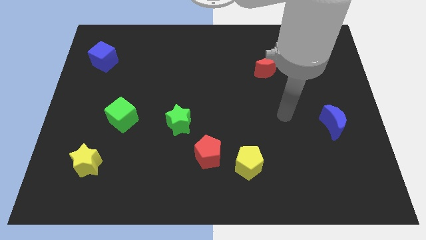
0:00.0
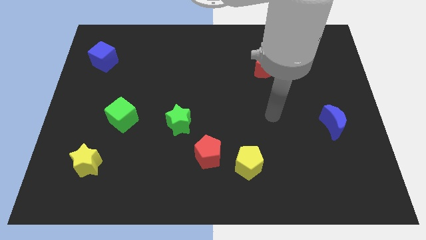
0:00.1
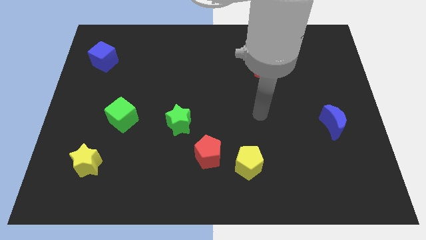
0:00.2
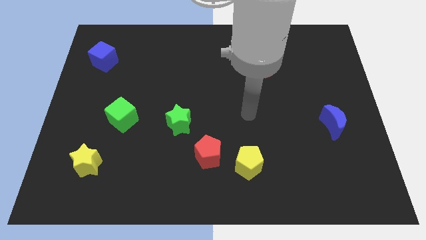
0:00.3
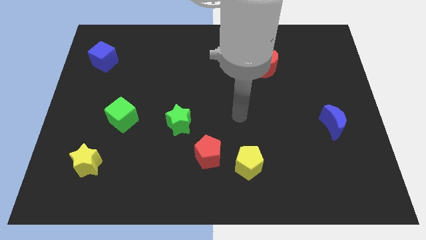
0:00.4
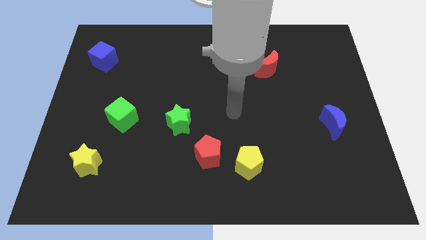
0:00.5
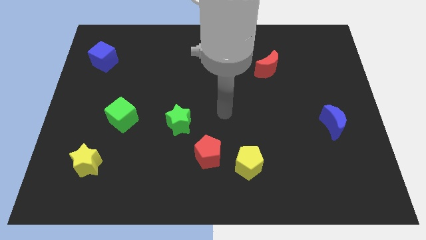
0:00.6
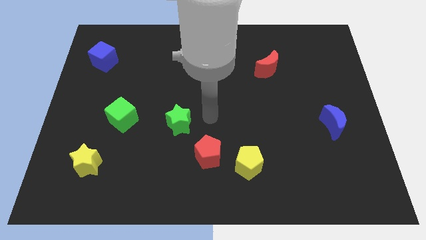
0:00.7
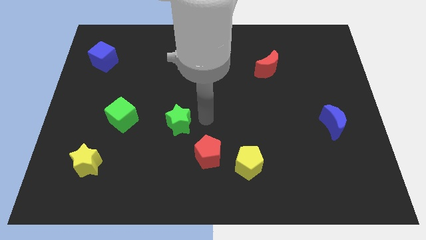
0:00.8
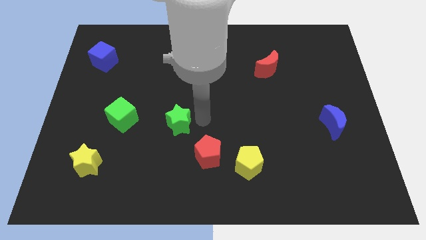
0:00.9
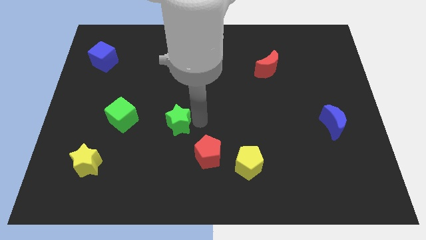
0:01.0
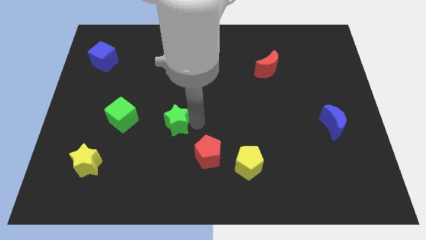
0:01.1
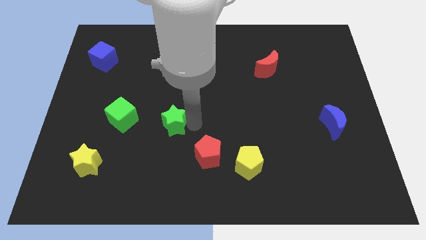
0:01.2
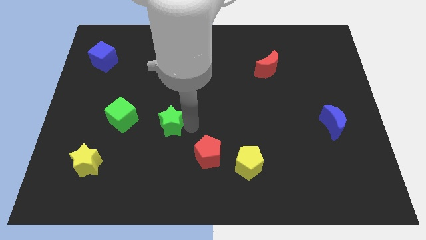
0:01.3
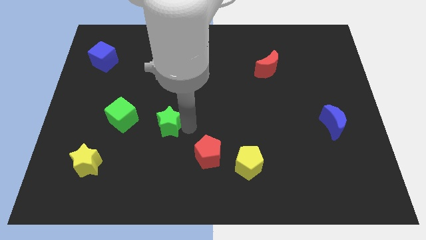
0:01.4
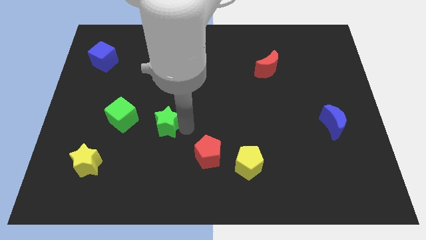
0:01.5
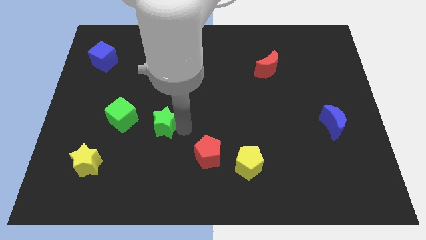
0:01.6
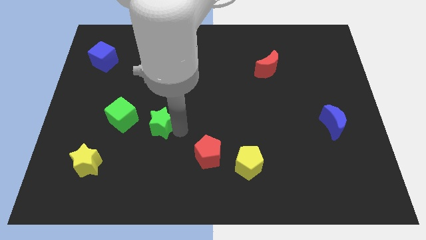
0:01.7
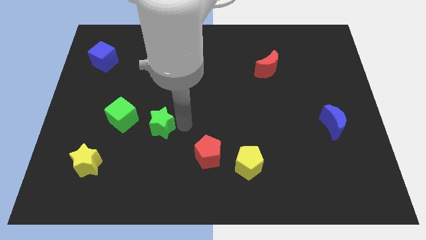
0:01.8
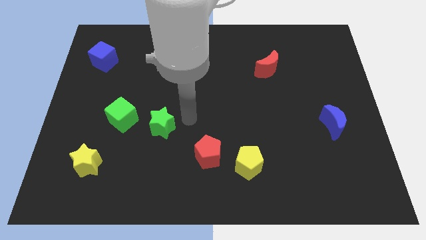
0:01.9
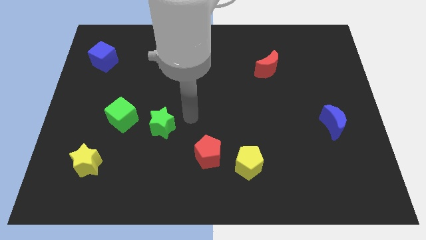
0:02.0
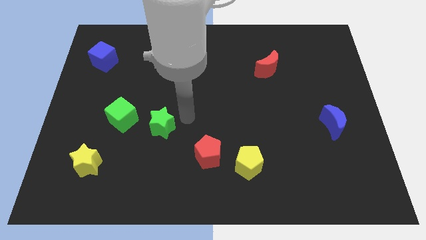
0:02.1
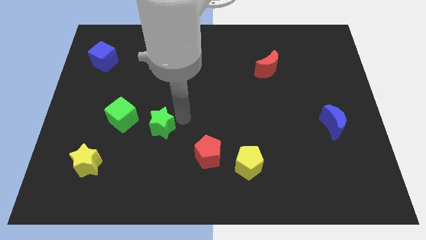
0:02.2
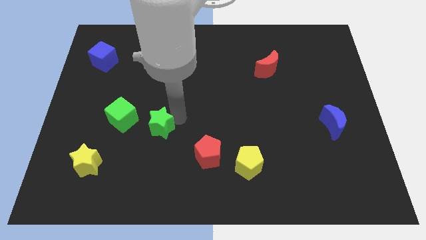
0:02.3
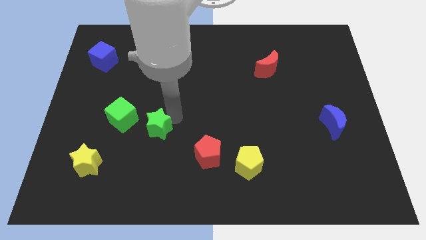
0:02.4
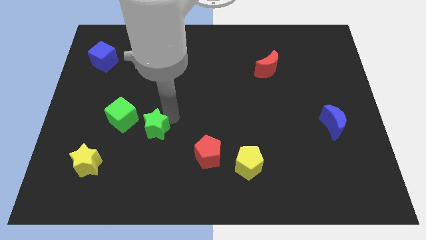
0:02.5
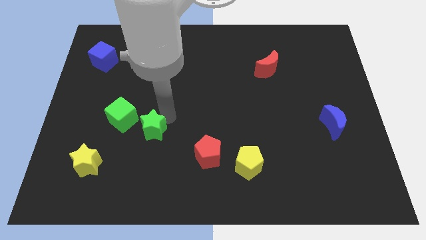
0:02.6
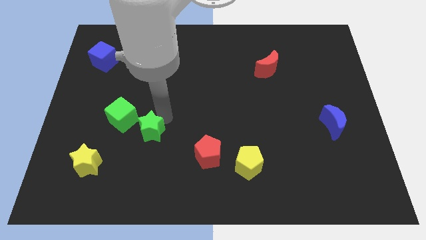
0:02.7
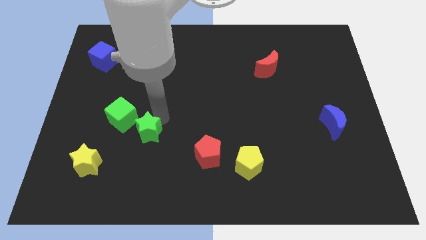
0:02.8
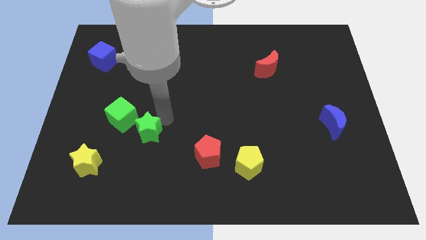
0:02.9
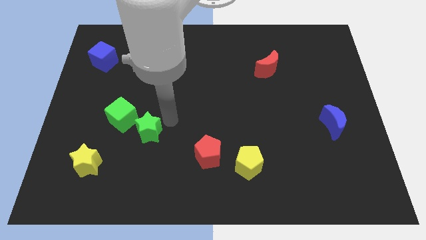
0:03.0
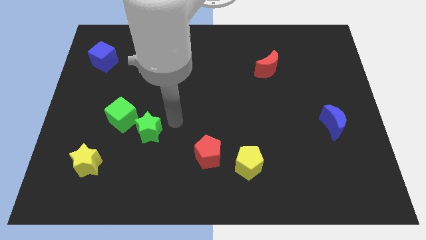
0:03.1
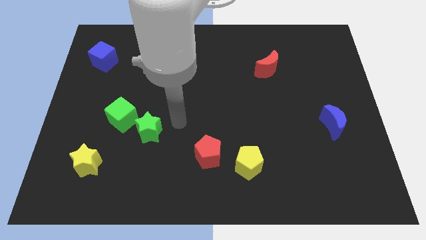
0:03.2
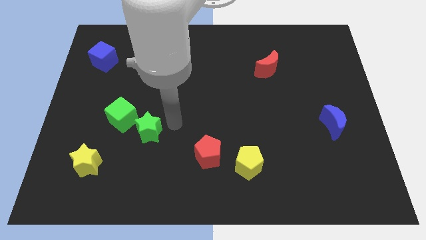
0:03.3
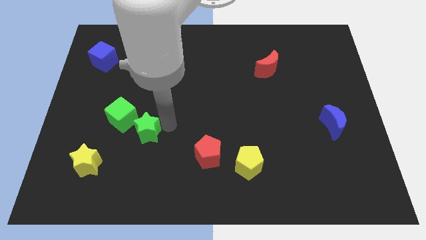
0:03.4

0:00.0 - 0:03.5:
slightly slide the green star left

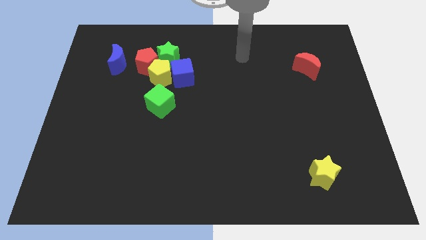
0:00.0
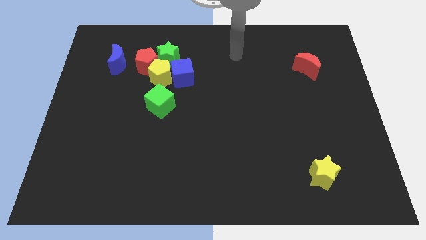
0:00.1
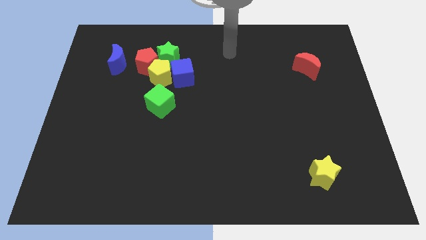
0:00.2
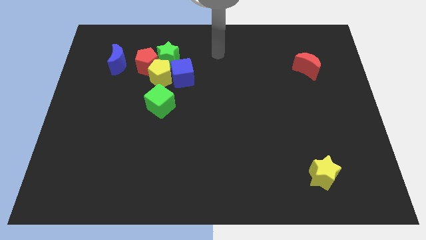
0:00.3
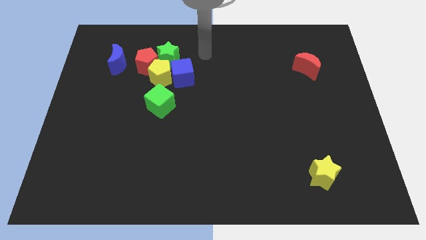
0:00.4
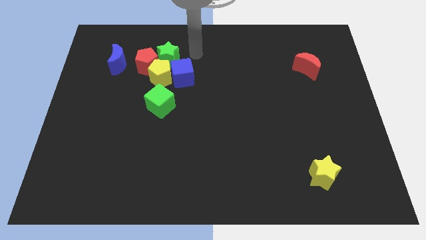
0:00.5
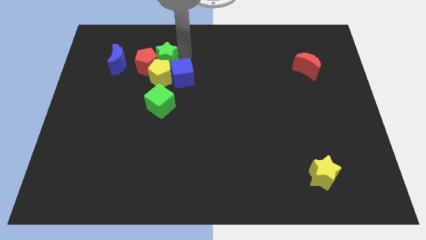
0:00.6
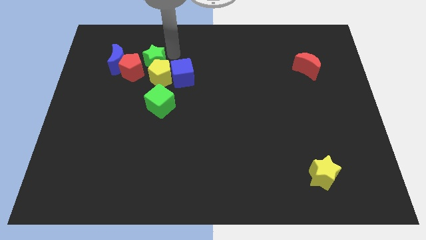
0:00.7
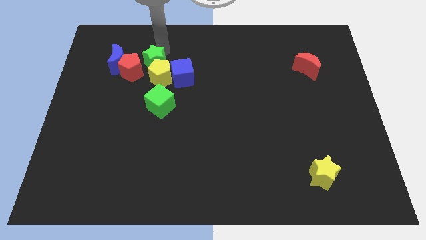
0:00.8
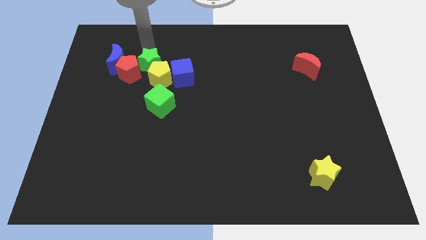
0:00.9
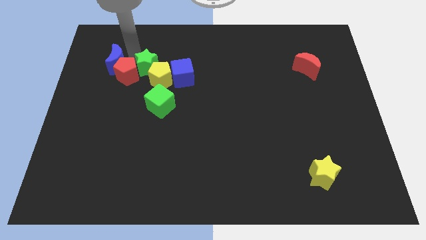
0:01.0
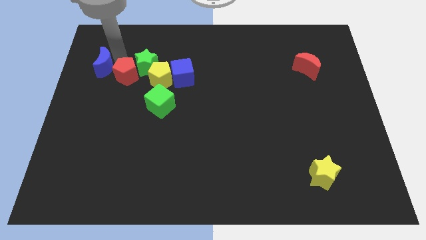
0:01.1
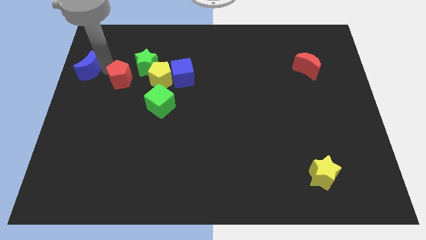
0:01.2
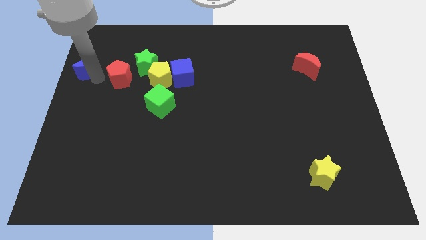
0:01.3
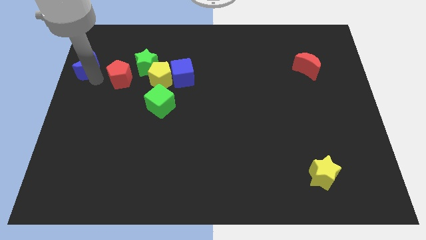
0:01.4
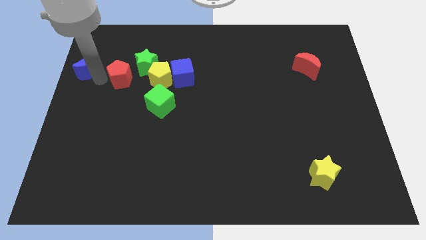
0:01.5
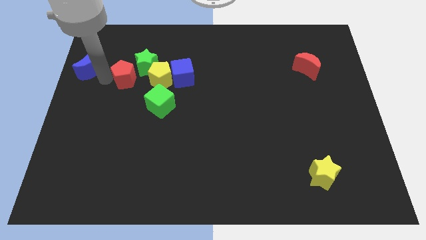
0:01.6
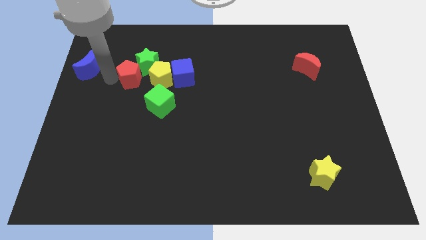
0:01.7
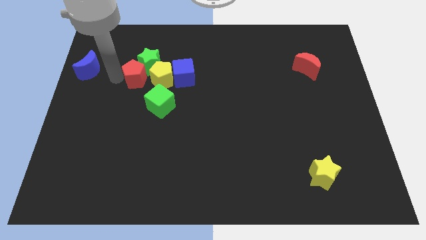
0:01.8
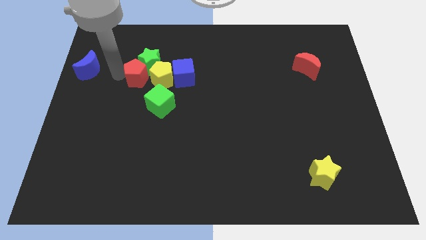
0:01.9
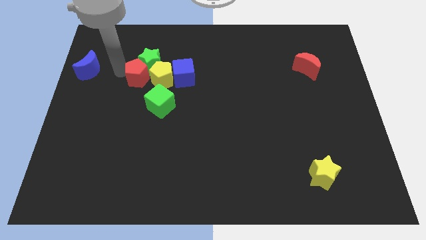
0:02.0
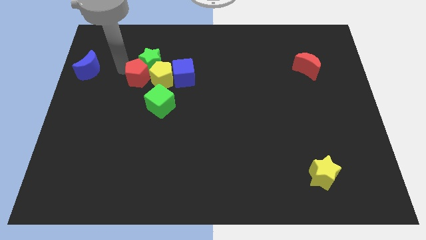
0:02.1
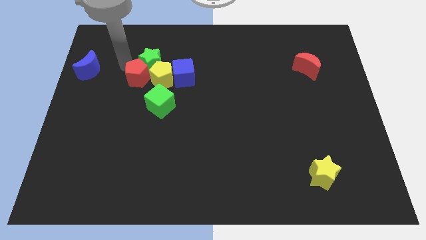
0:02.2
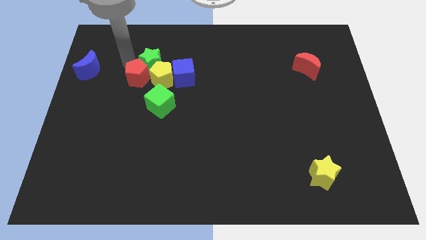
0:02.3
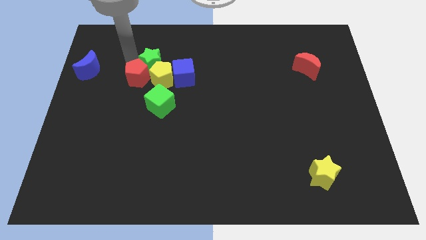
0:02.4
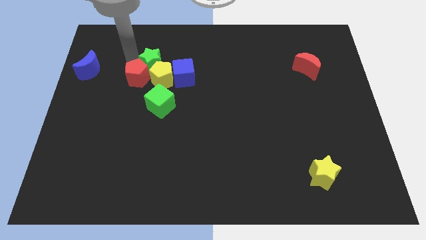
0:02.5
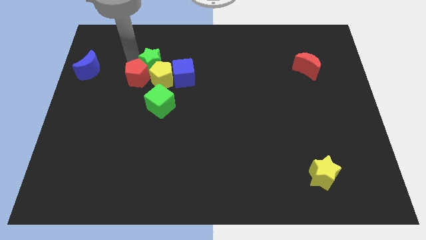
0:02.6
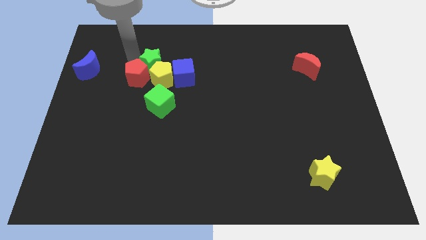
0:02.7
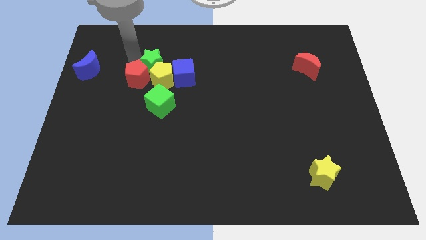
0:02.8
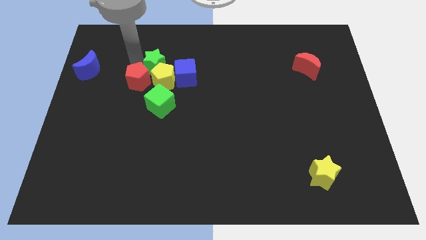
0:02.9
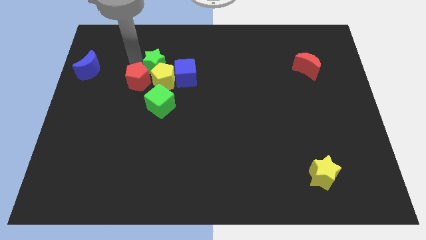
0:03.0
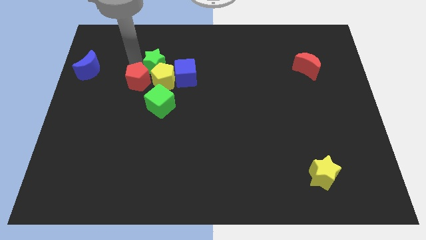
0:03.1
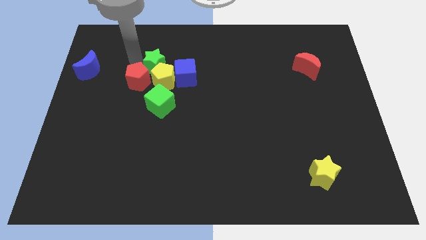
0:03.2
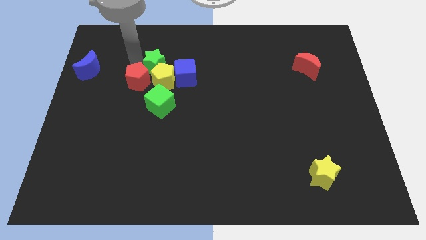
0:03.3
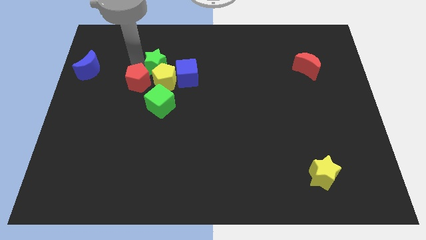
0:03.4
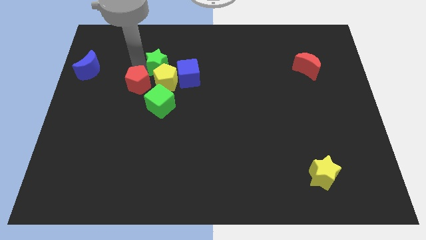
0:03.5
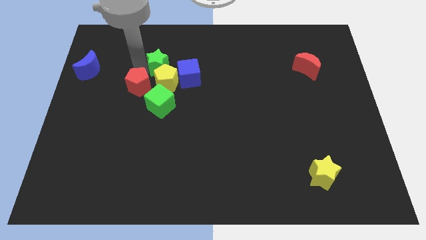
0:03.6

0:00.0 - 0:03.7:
slightly move the red pentagon downwards

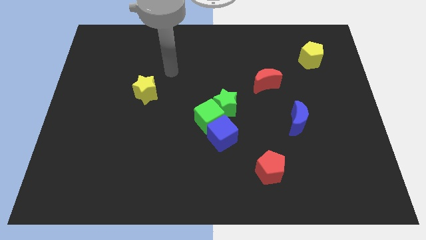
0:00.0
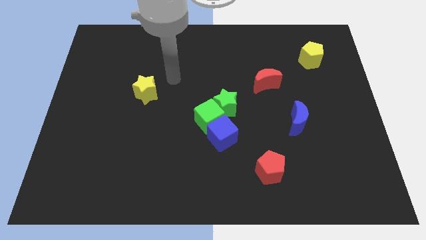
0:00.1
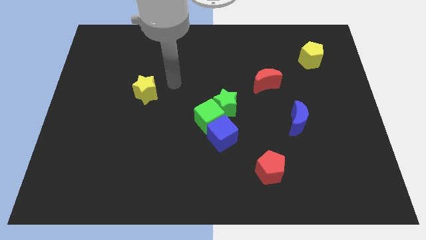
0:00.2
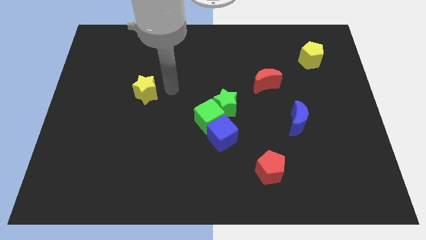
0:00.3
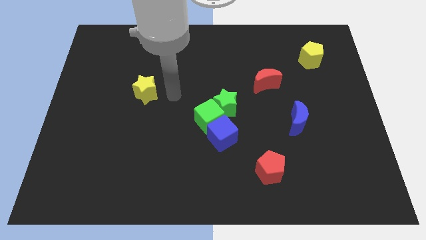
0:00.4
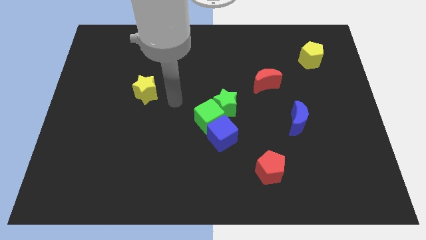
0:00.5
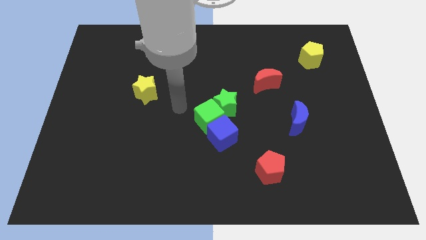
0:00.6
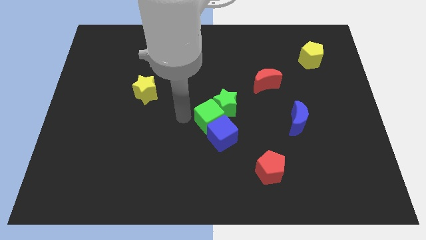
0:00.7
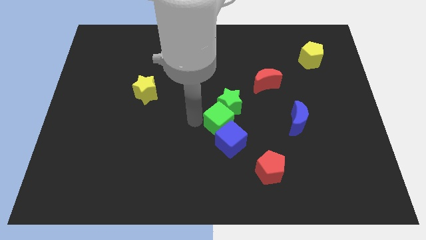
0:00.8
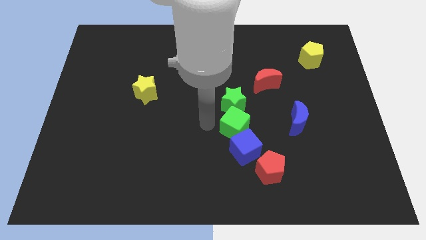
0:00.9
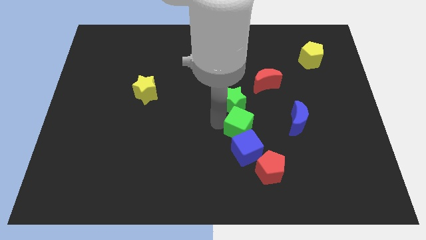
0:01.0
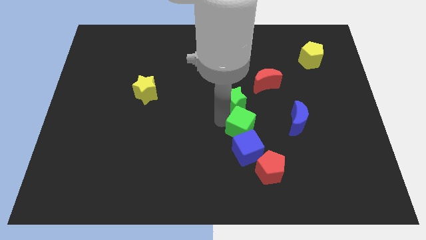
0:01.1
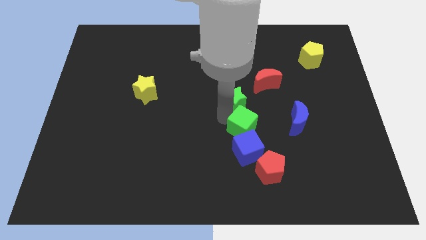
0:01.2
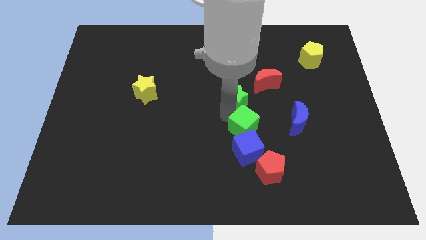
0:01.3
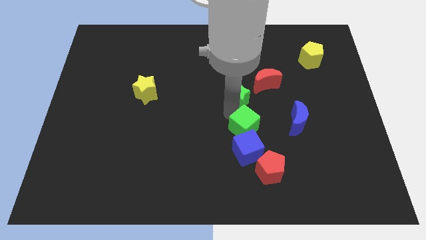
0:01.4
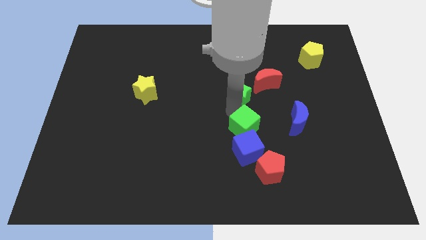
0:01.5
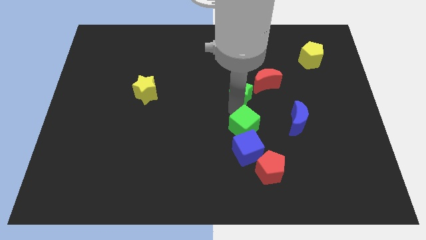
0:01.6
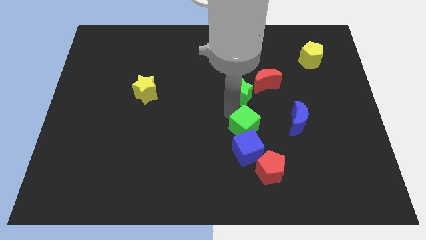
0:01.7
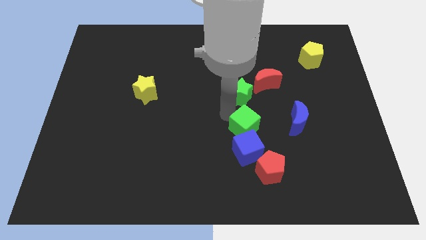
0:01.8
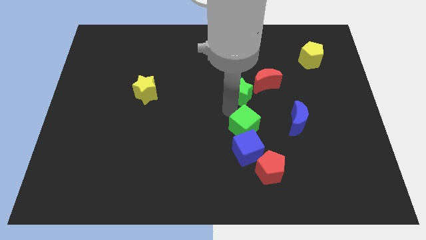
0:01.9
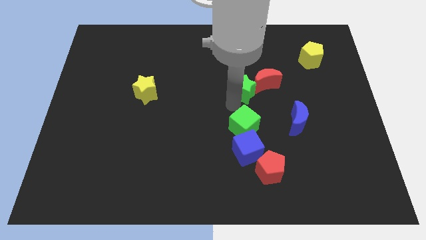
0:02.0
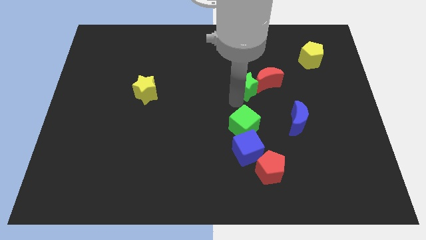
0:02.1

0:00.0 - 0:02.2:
slightly move the green star diagonally upwards and right
